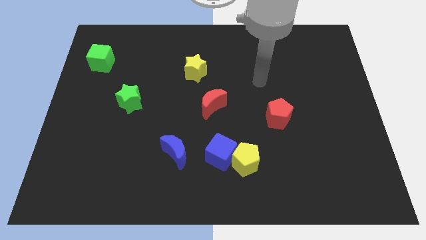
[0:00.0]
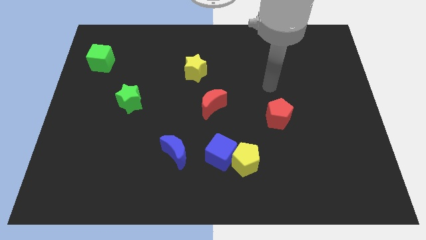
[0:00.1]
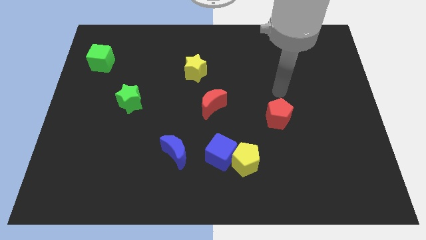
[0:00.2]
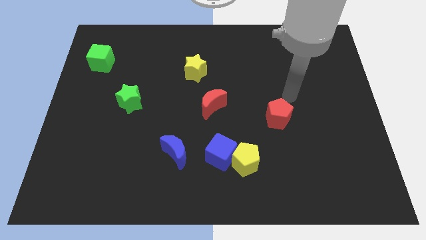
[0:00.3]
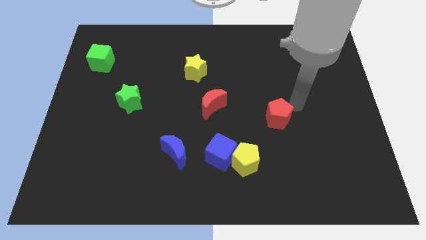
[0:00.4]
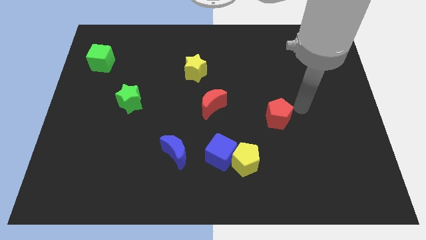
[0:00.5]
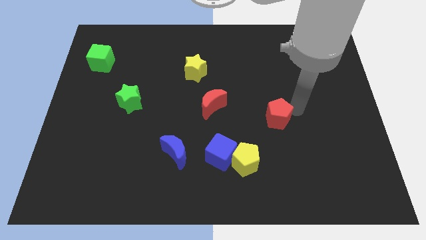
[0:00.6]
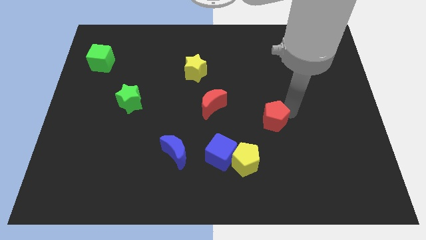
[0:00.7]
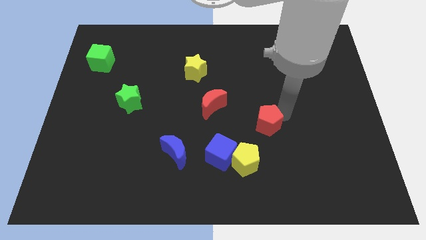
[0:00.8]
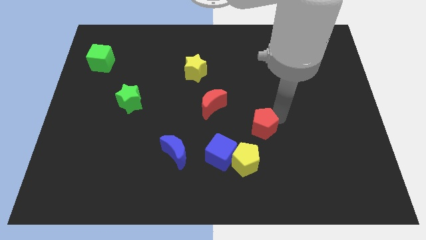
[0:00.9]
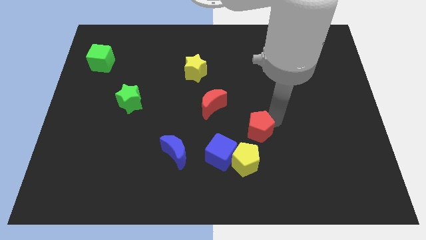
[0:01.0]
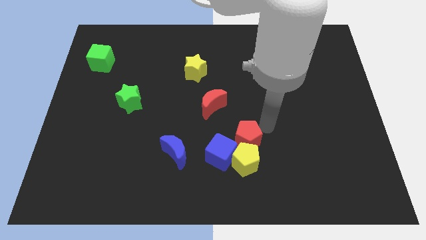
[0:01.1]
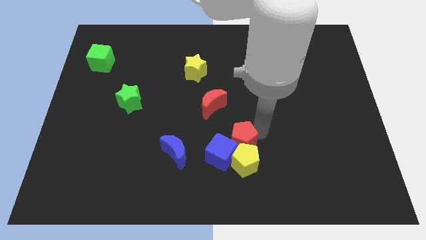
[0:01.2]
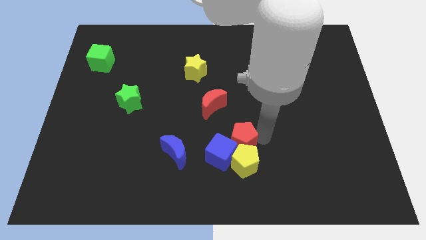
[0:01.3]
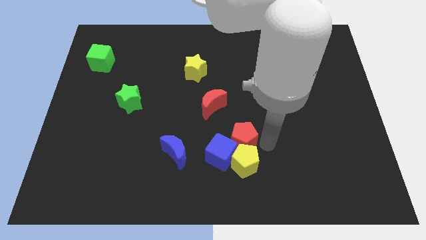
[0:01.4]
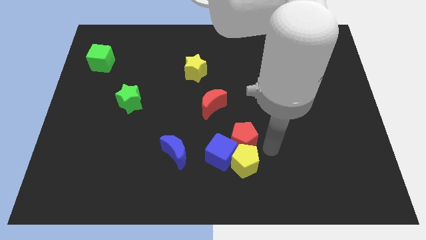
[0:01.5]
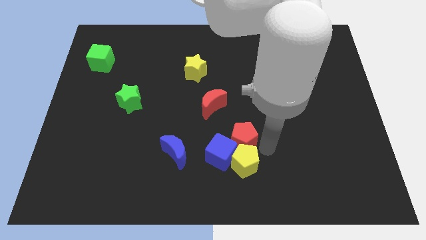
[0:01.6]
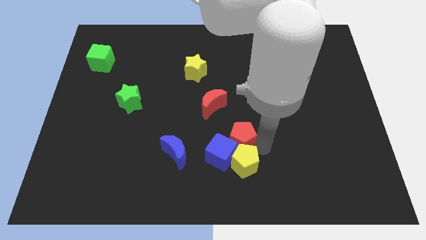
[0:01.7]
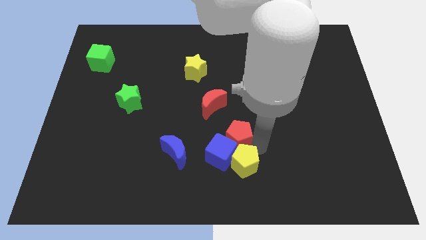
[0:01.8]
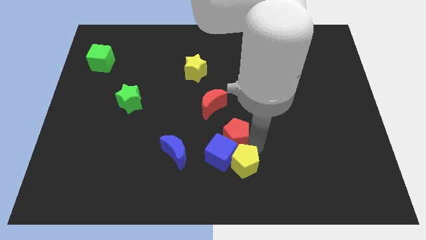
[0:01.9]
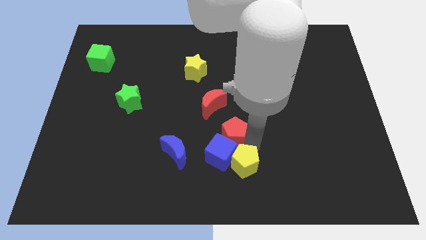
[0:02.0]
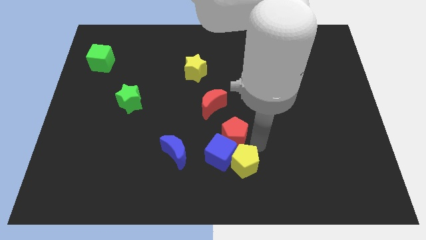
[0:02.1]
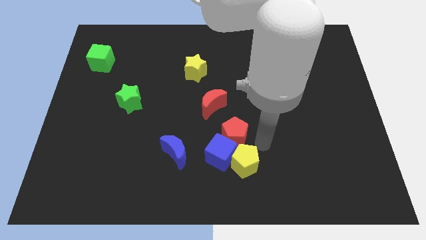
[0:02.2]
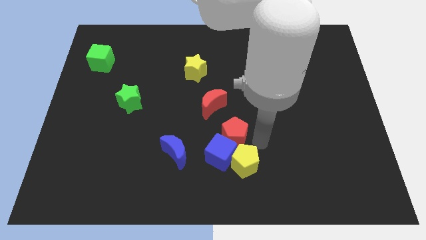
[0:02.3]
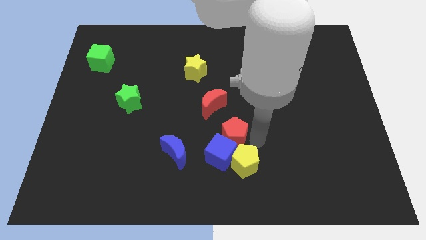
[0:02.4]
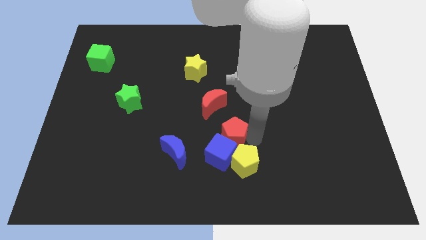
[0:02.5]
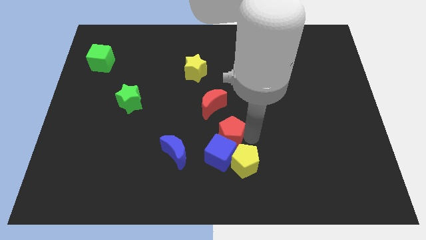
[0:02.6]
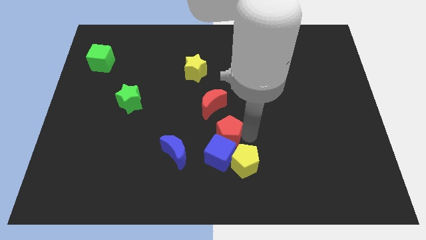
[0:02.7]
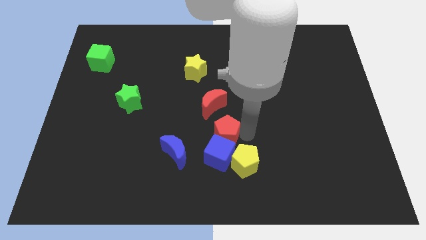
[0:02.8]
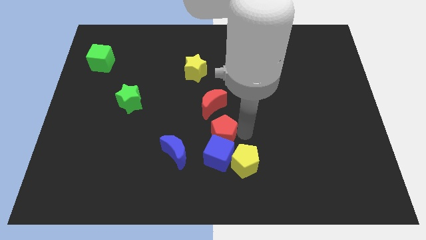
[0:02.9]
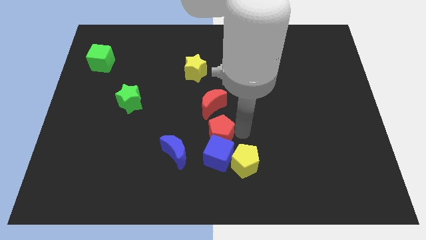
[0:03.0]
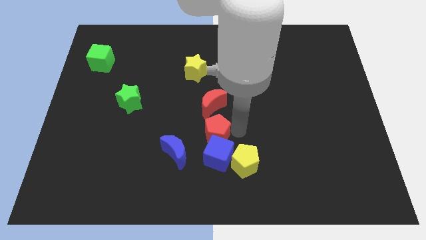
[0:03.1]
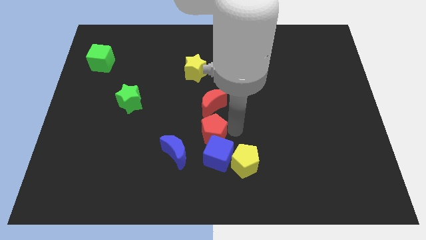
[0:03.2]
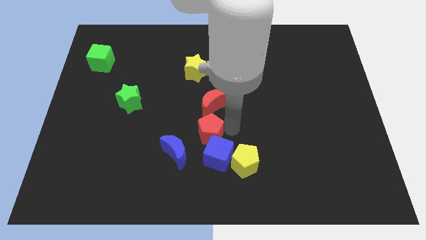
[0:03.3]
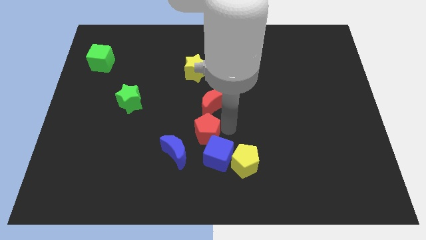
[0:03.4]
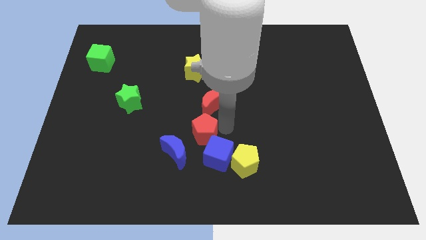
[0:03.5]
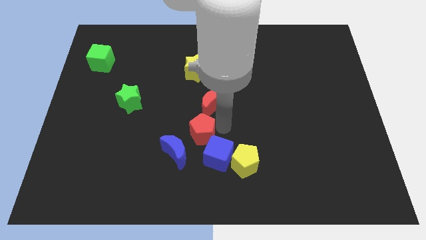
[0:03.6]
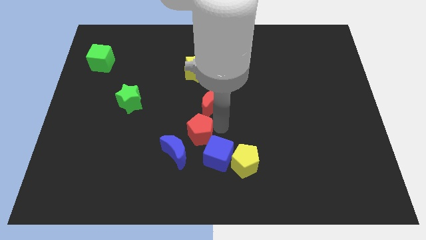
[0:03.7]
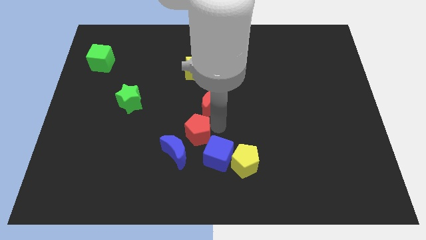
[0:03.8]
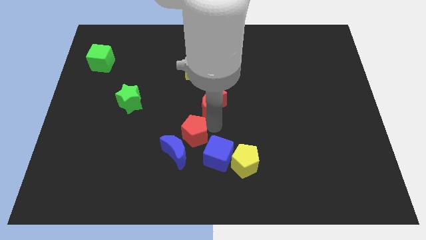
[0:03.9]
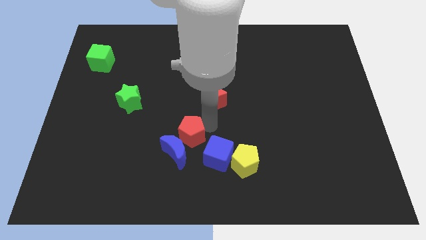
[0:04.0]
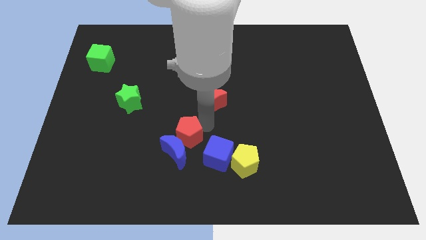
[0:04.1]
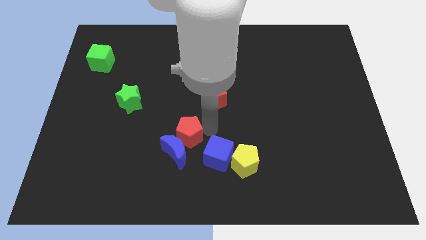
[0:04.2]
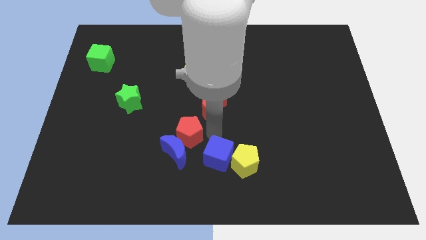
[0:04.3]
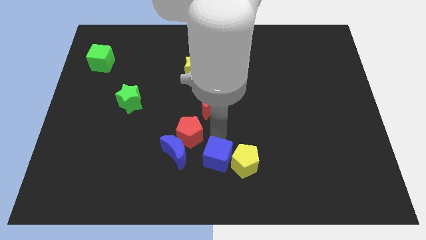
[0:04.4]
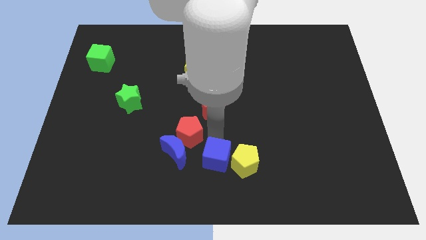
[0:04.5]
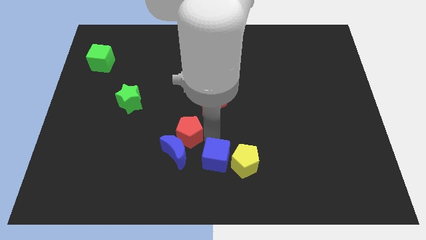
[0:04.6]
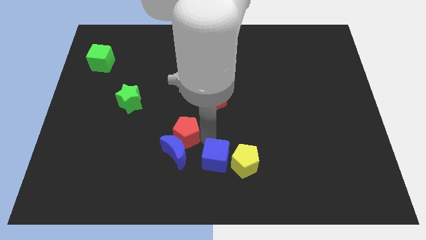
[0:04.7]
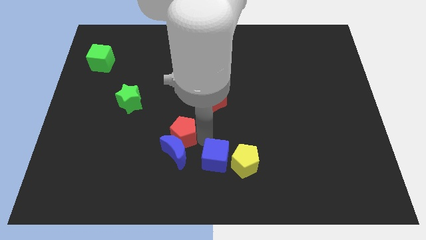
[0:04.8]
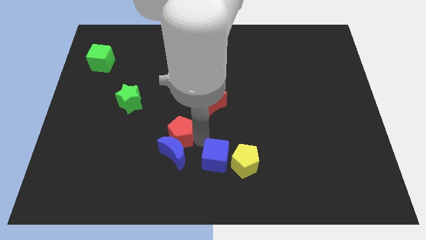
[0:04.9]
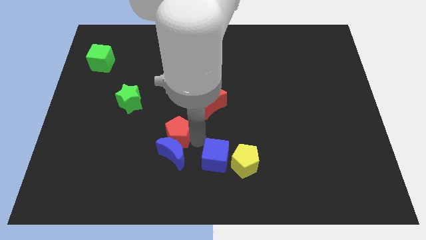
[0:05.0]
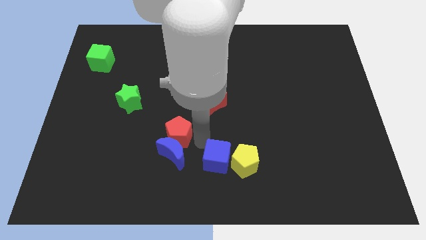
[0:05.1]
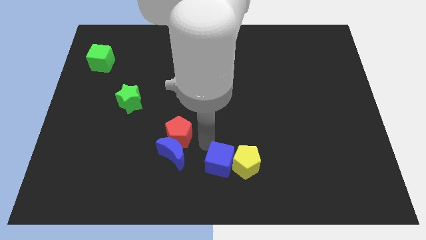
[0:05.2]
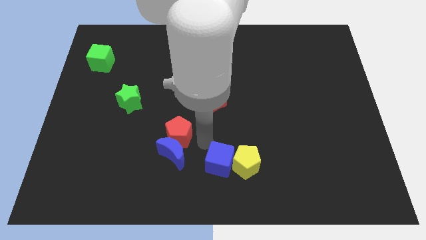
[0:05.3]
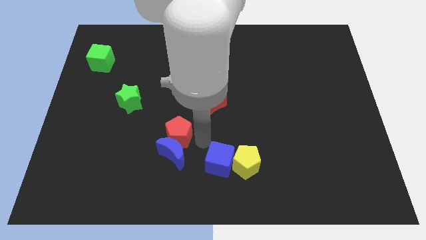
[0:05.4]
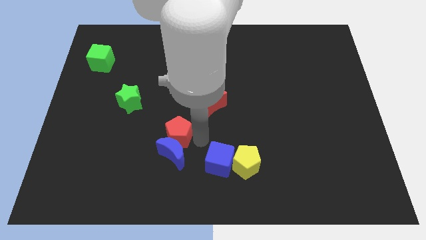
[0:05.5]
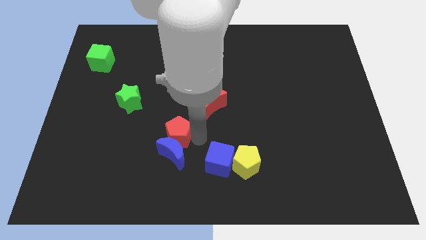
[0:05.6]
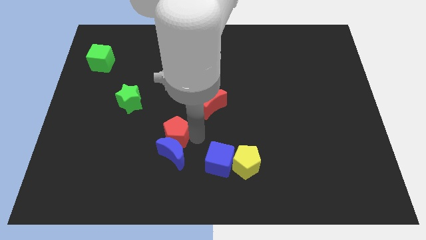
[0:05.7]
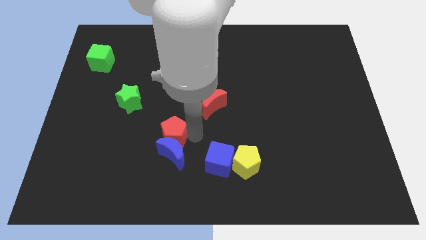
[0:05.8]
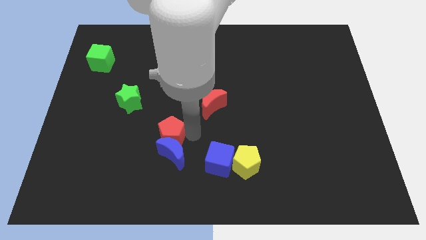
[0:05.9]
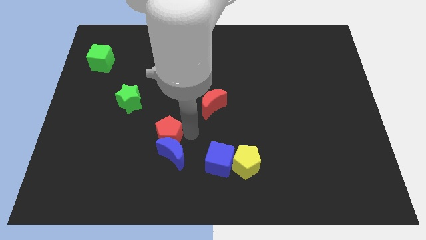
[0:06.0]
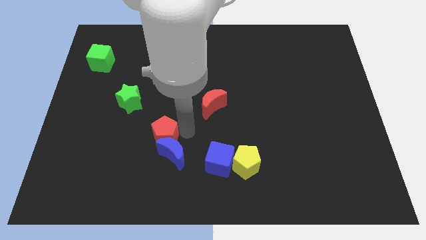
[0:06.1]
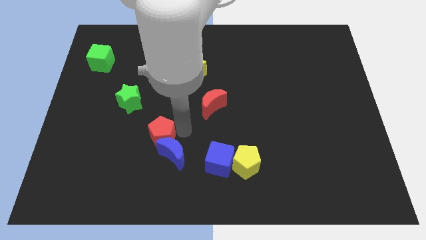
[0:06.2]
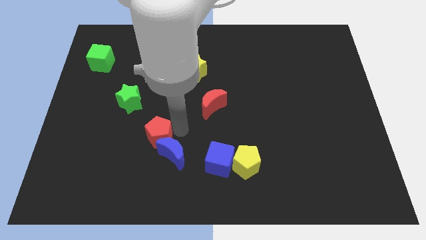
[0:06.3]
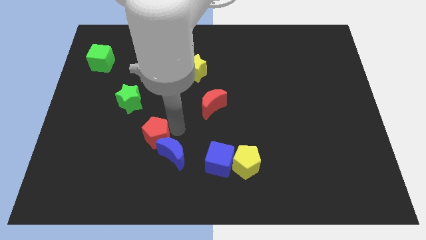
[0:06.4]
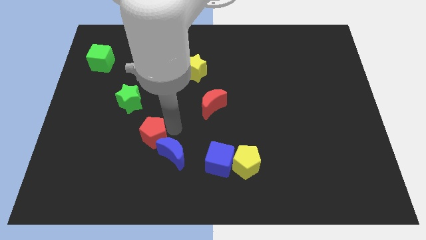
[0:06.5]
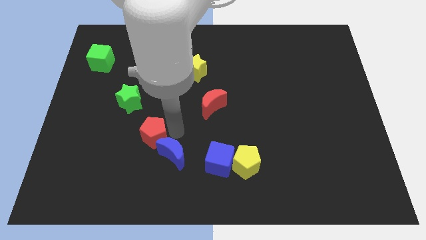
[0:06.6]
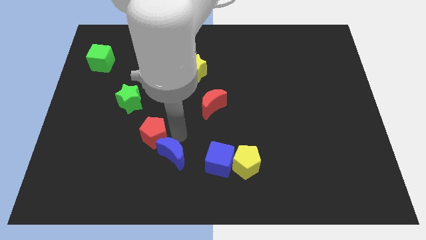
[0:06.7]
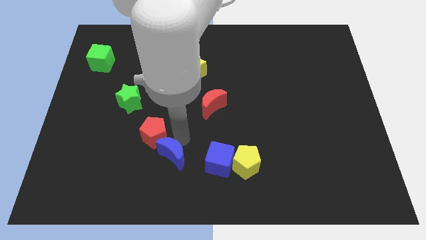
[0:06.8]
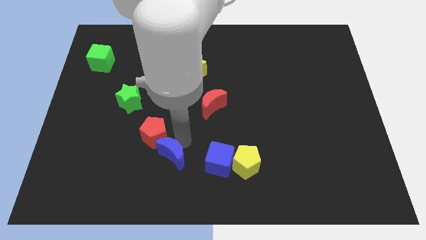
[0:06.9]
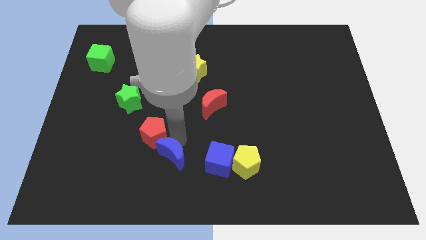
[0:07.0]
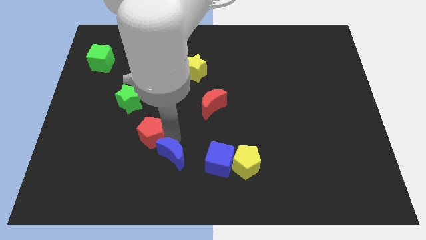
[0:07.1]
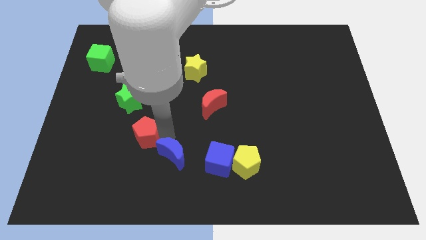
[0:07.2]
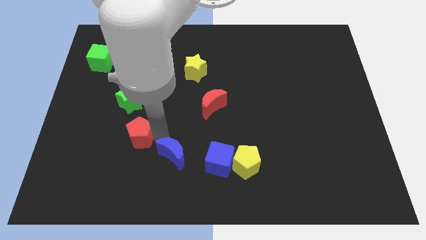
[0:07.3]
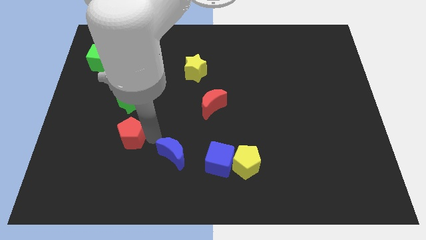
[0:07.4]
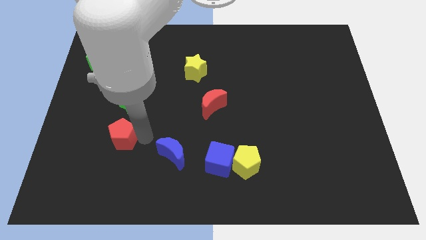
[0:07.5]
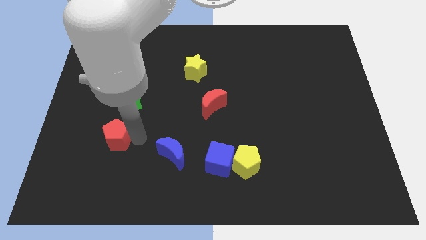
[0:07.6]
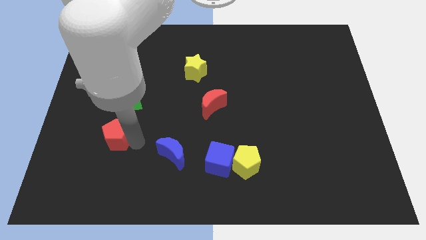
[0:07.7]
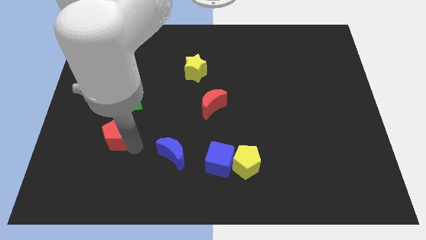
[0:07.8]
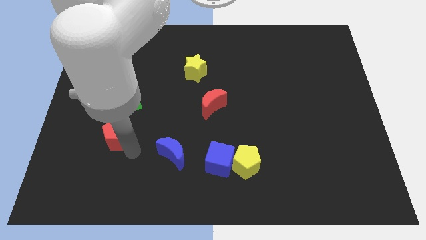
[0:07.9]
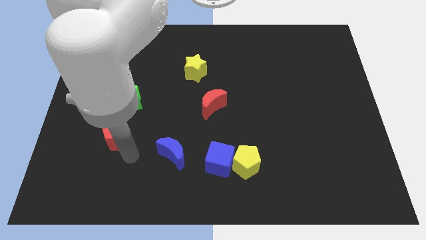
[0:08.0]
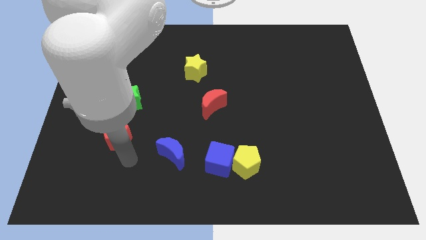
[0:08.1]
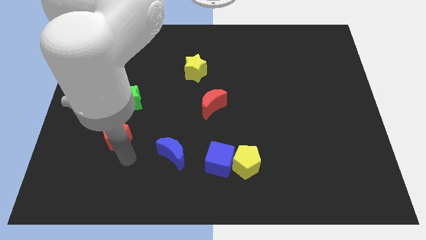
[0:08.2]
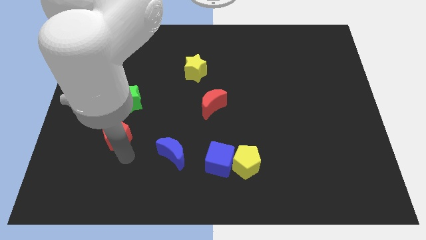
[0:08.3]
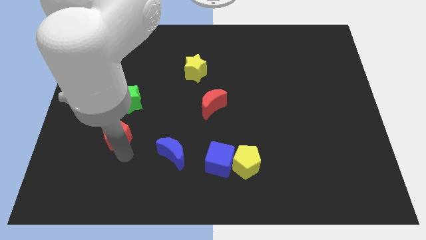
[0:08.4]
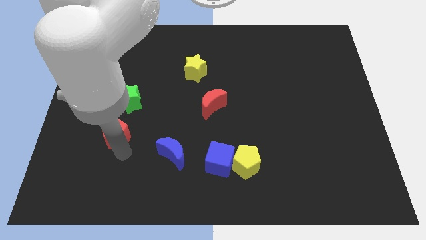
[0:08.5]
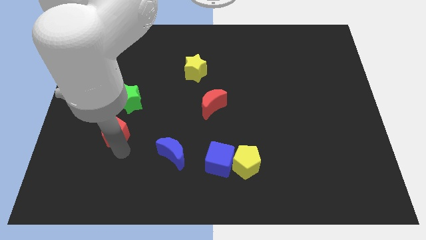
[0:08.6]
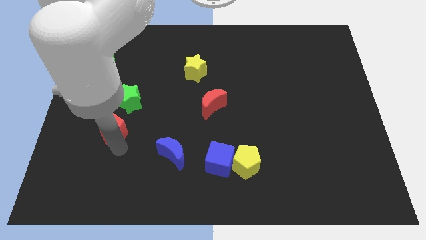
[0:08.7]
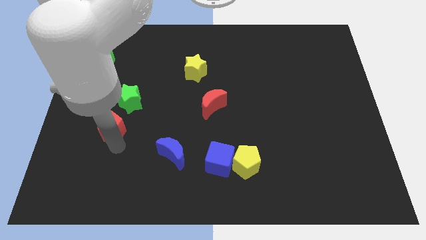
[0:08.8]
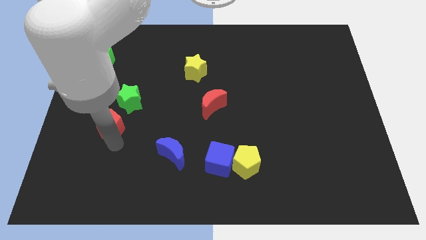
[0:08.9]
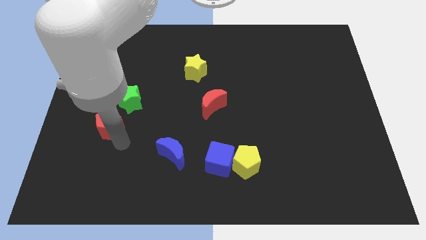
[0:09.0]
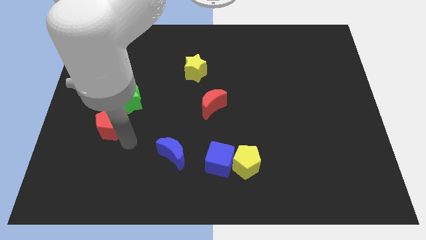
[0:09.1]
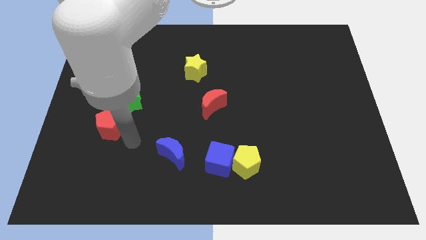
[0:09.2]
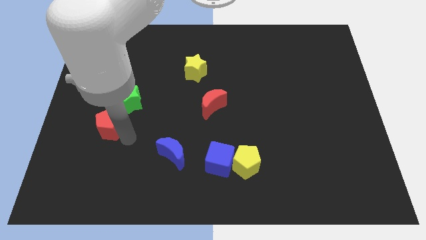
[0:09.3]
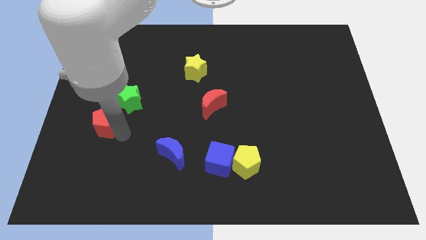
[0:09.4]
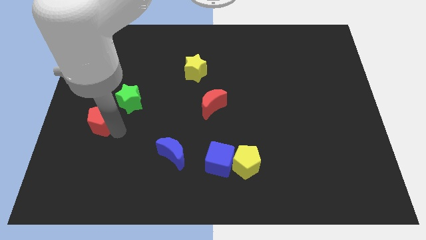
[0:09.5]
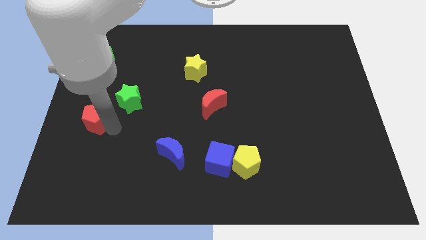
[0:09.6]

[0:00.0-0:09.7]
push the red pentagon to the center left
